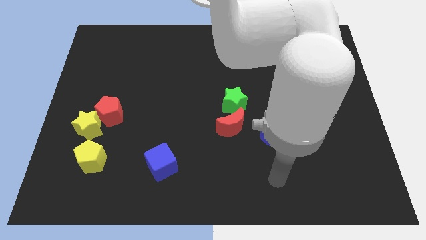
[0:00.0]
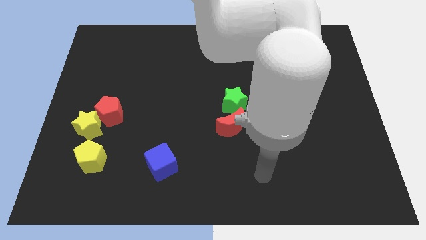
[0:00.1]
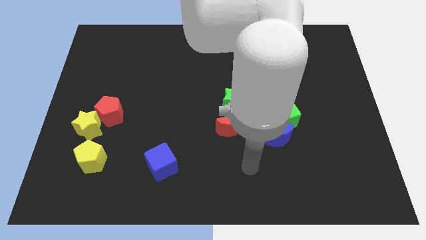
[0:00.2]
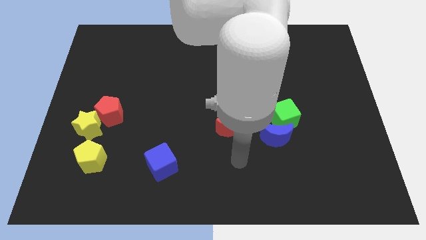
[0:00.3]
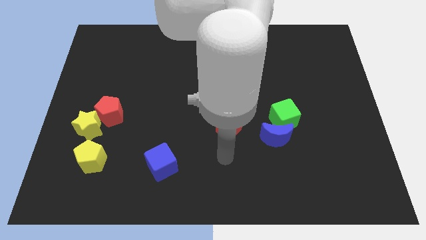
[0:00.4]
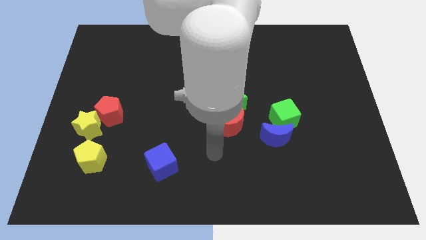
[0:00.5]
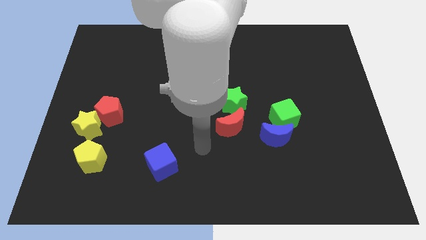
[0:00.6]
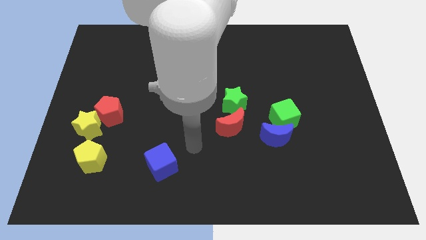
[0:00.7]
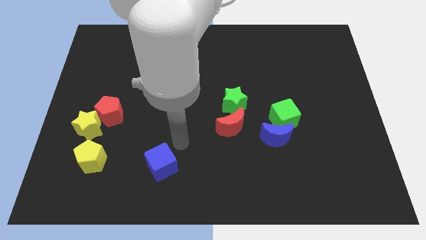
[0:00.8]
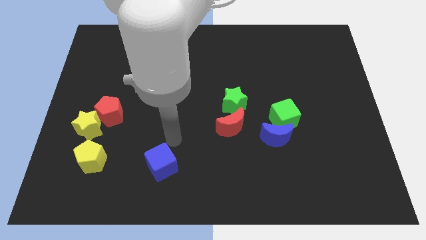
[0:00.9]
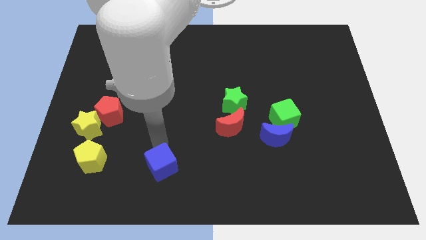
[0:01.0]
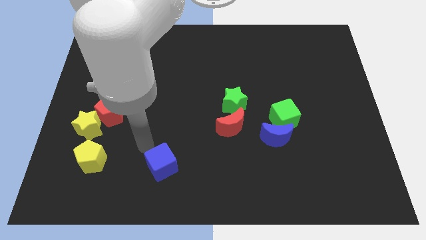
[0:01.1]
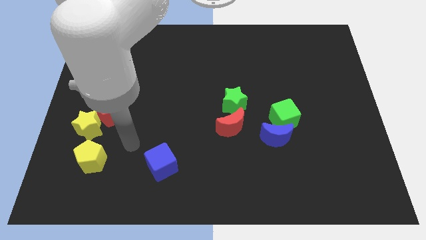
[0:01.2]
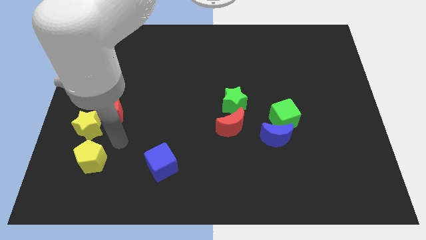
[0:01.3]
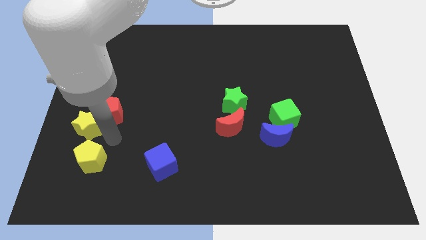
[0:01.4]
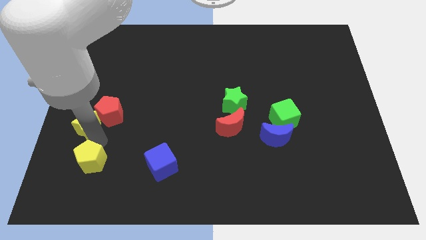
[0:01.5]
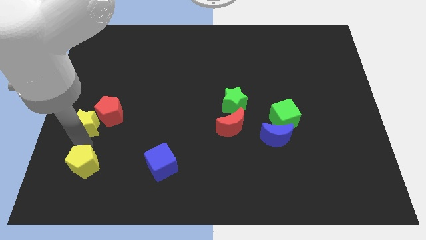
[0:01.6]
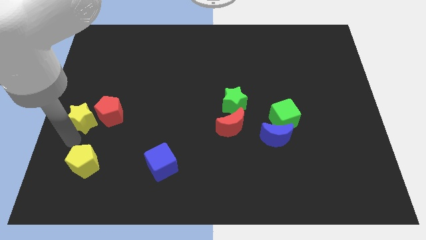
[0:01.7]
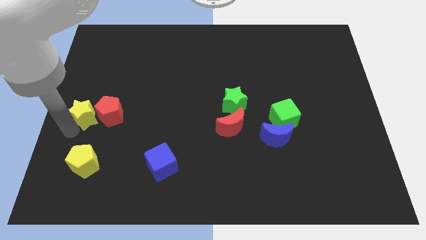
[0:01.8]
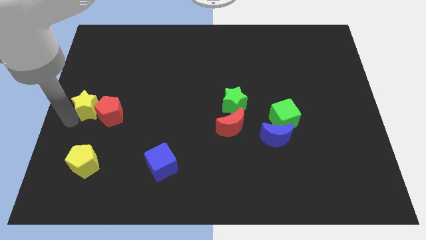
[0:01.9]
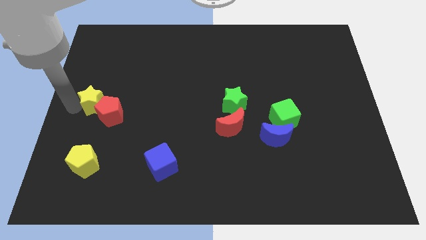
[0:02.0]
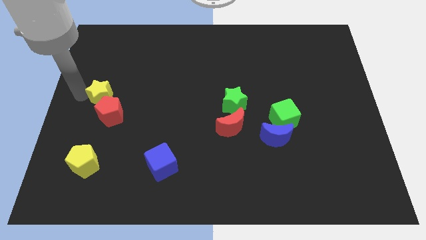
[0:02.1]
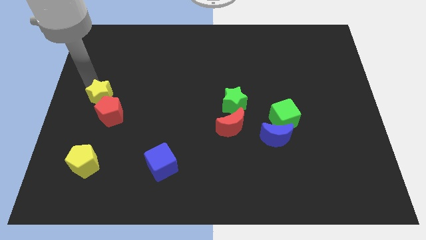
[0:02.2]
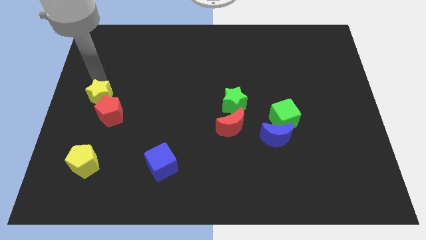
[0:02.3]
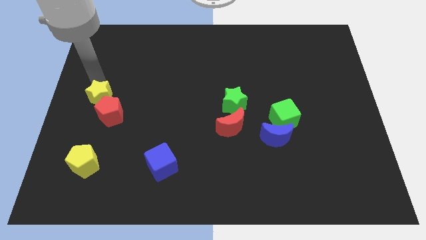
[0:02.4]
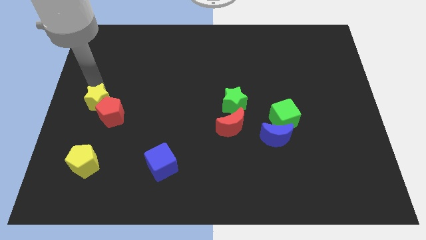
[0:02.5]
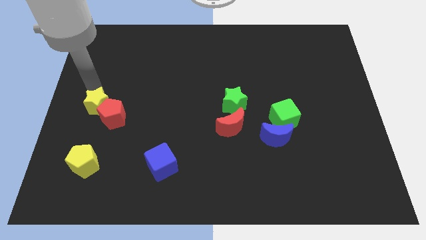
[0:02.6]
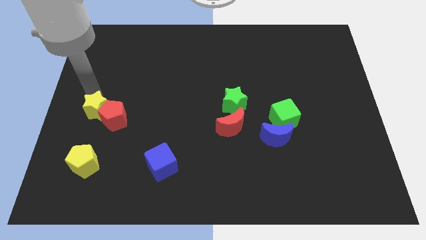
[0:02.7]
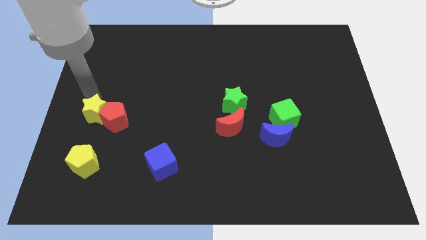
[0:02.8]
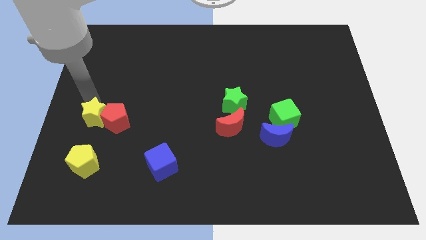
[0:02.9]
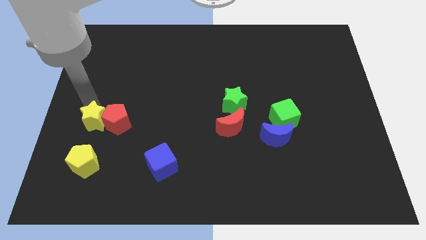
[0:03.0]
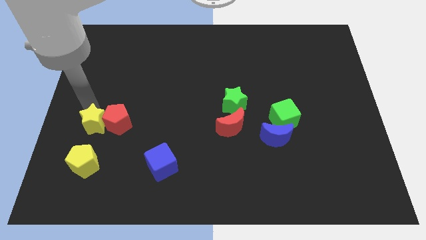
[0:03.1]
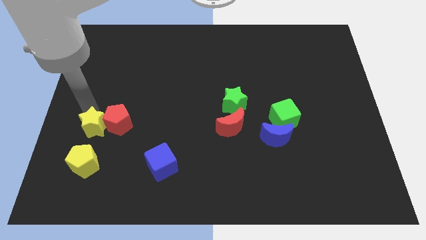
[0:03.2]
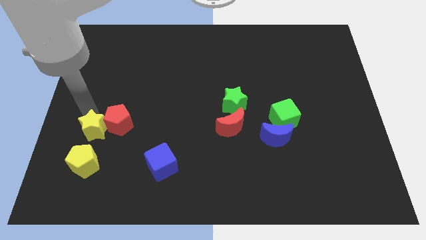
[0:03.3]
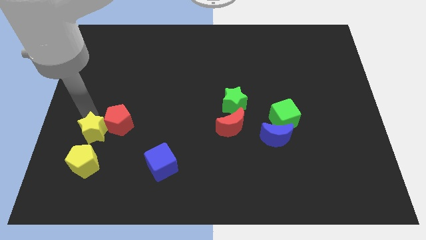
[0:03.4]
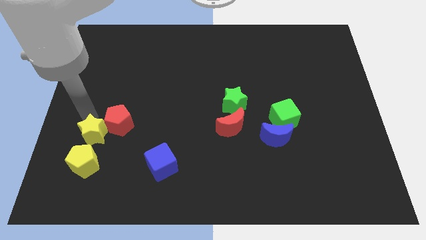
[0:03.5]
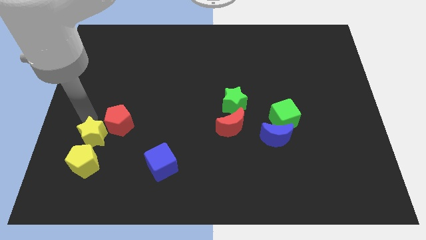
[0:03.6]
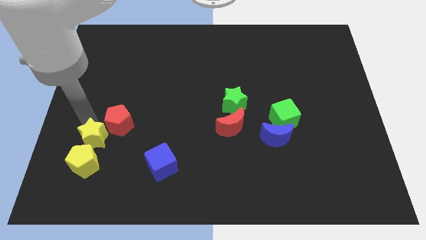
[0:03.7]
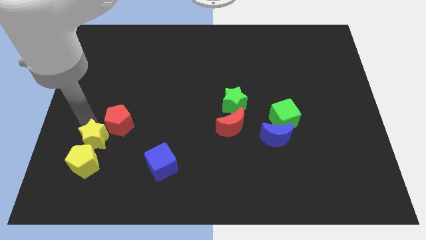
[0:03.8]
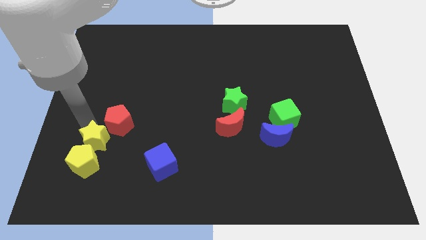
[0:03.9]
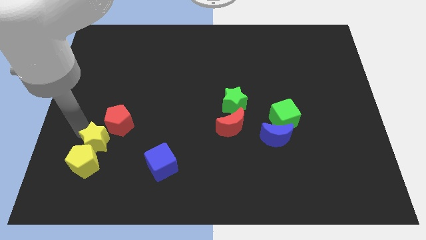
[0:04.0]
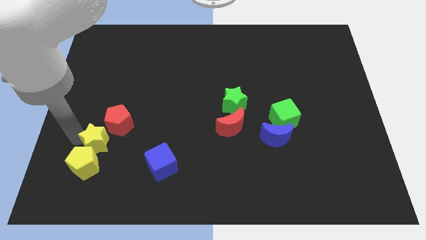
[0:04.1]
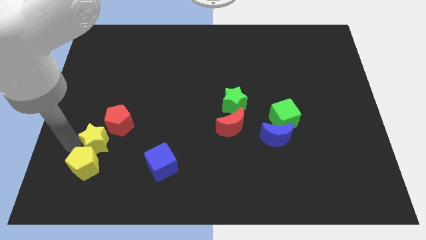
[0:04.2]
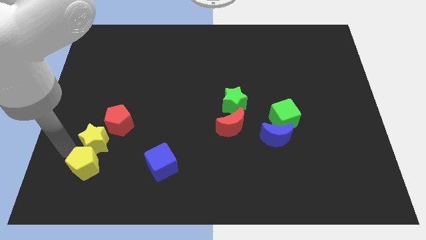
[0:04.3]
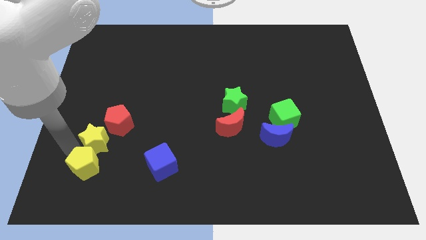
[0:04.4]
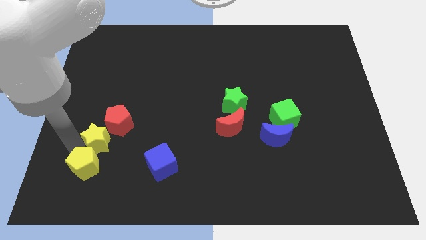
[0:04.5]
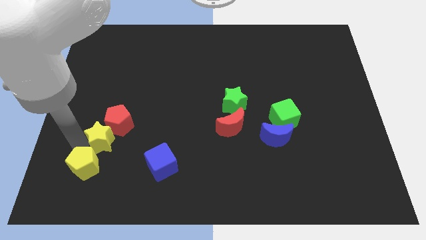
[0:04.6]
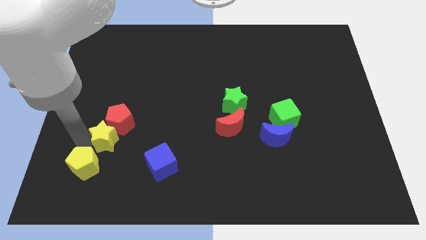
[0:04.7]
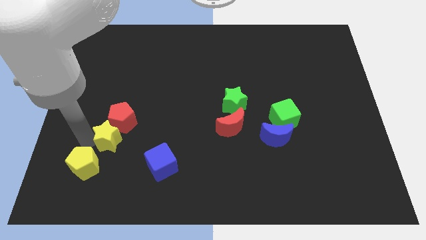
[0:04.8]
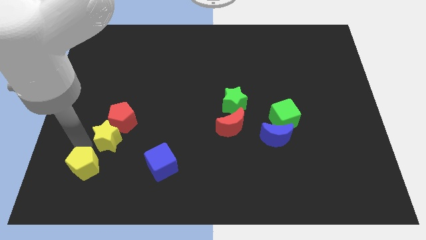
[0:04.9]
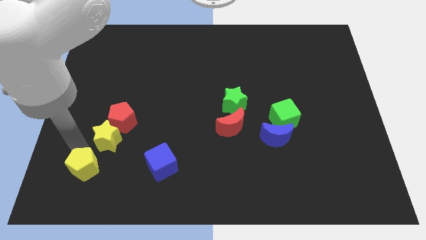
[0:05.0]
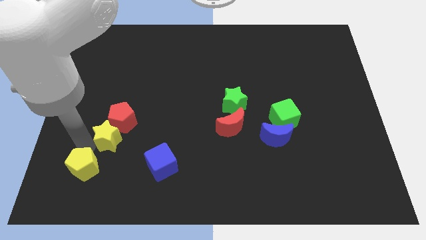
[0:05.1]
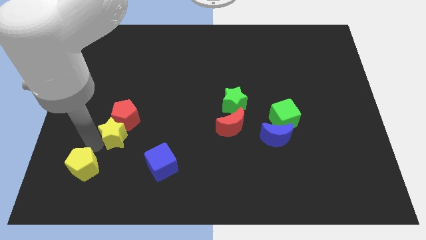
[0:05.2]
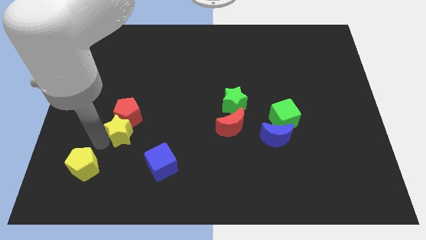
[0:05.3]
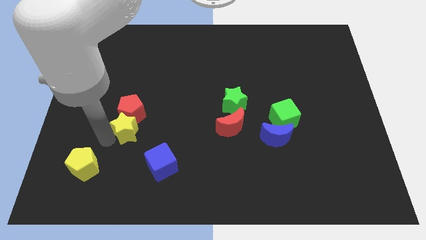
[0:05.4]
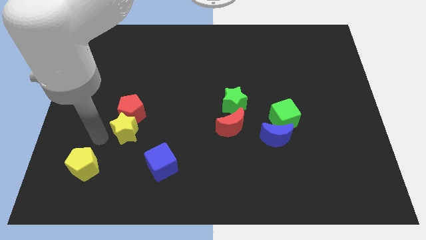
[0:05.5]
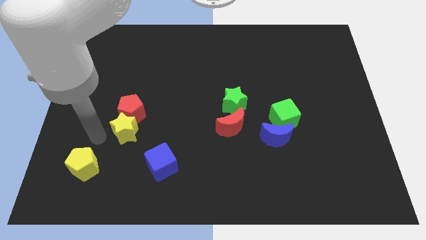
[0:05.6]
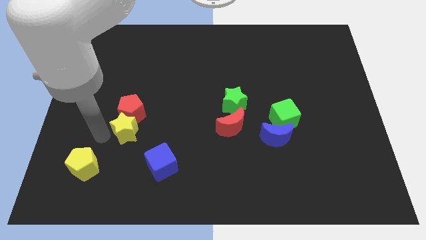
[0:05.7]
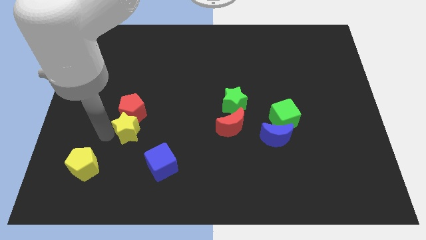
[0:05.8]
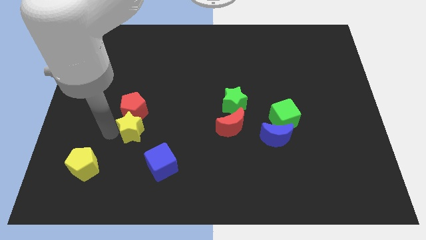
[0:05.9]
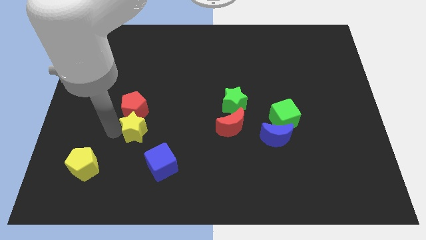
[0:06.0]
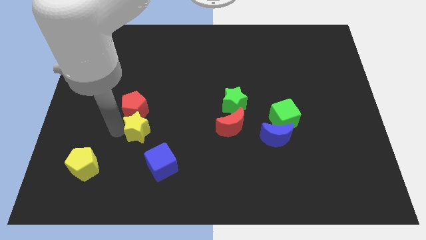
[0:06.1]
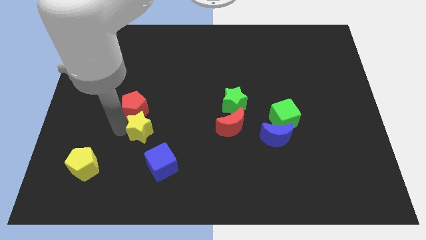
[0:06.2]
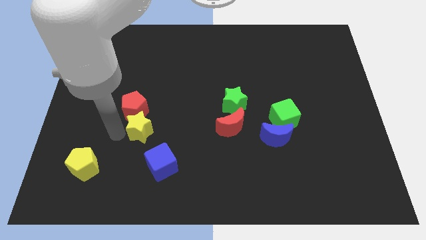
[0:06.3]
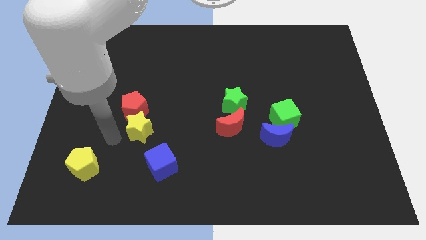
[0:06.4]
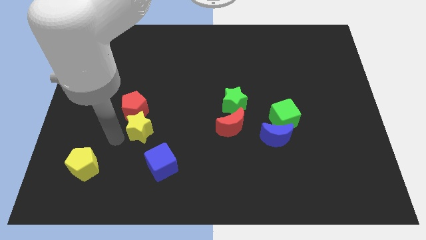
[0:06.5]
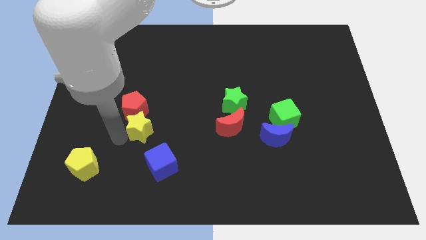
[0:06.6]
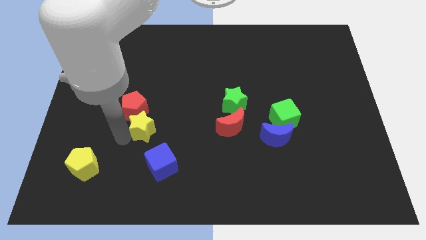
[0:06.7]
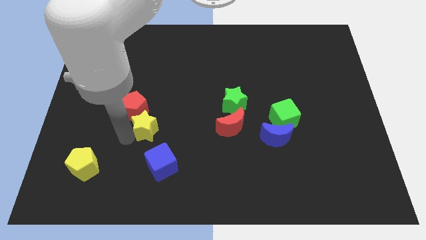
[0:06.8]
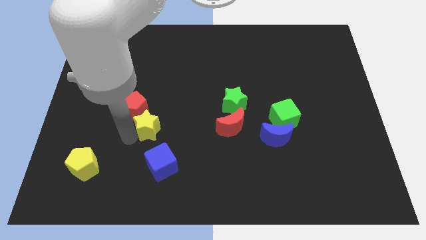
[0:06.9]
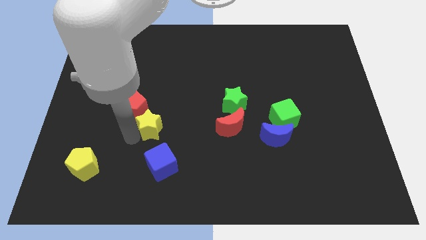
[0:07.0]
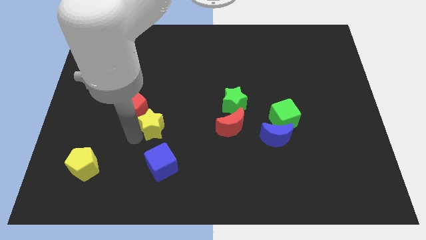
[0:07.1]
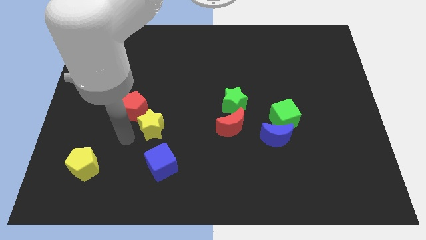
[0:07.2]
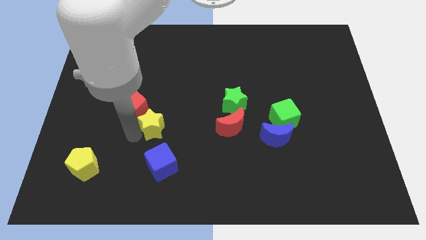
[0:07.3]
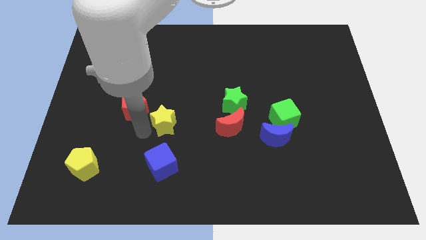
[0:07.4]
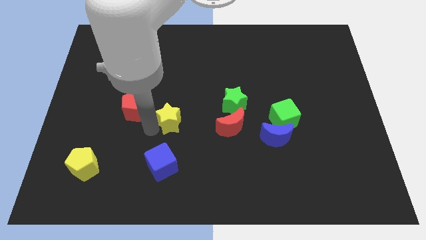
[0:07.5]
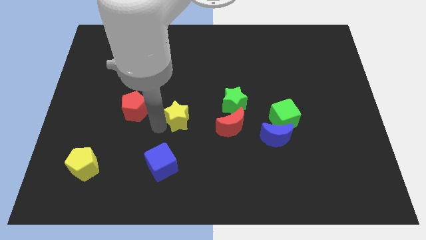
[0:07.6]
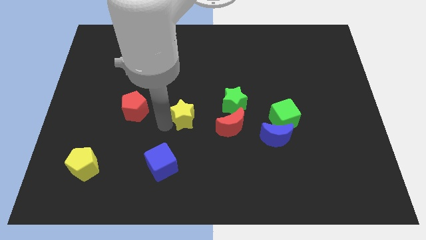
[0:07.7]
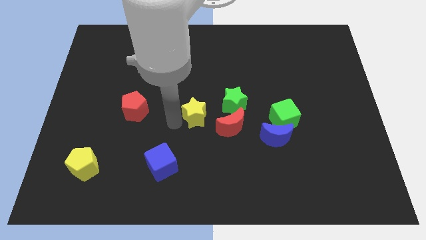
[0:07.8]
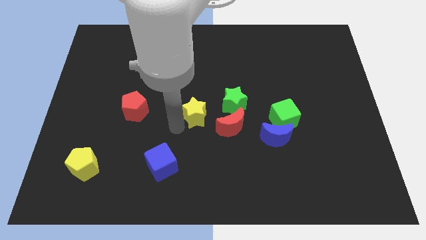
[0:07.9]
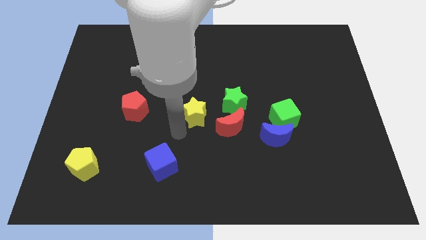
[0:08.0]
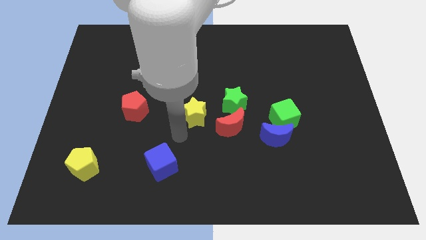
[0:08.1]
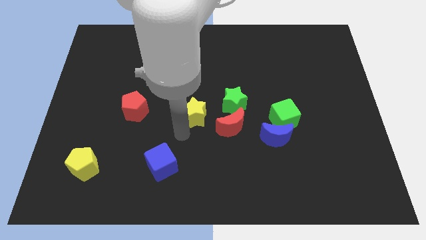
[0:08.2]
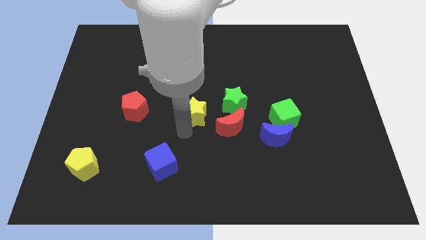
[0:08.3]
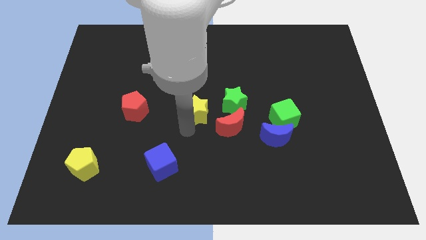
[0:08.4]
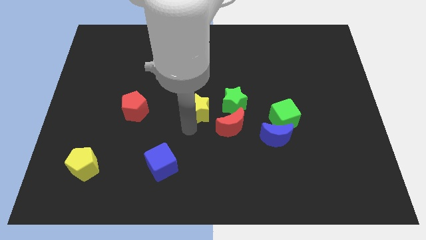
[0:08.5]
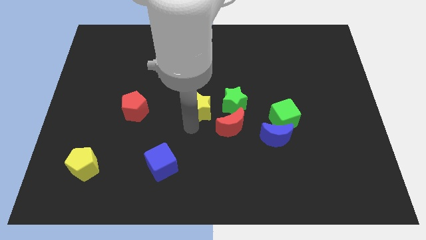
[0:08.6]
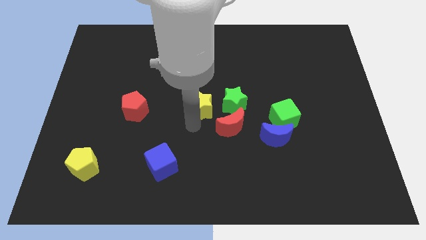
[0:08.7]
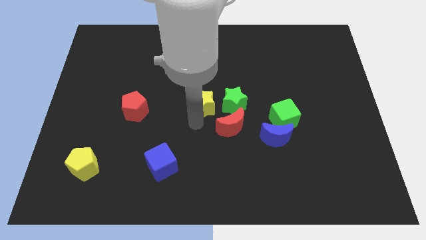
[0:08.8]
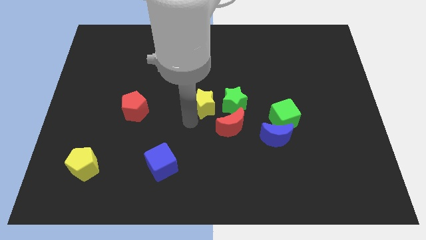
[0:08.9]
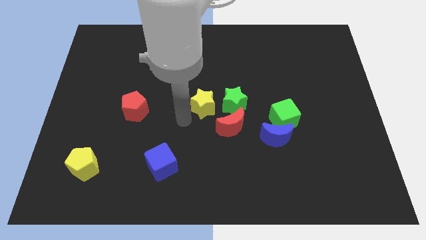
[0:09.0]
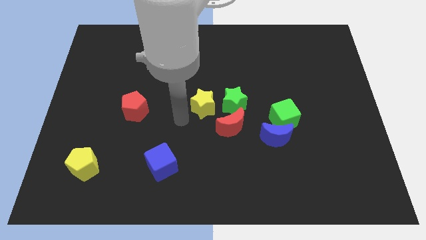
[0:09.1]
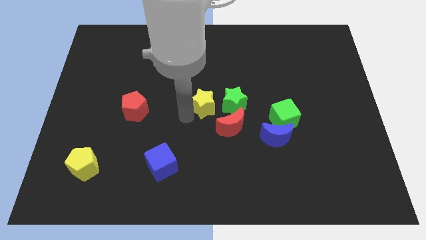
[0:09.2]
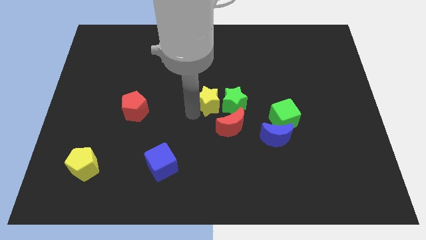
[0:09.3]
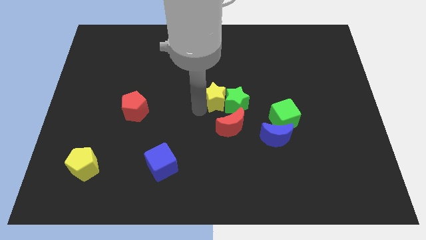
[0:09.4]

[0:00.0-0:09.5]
put the yellow star to the top of the red moon
